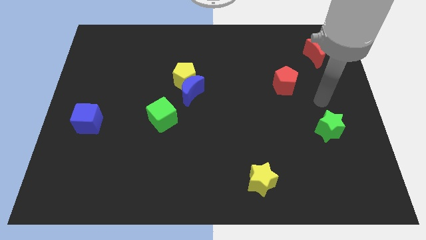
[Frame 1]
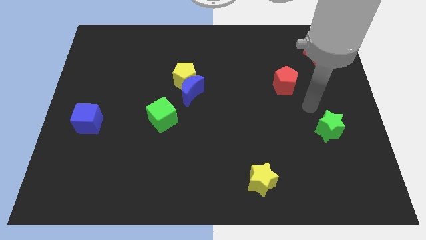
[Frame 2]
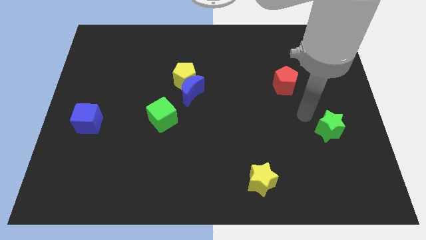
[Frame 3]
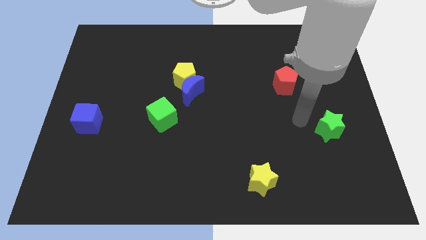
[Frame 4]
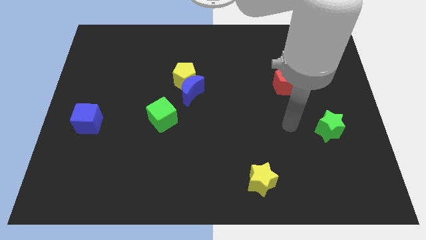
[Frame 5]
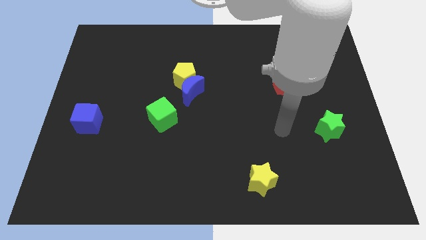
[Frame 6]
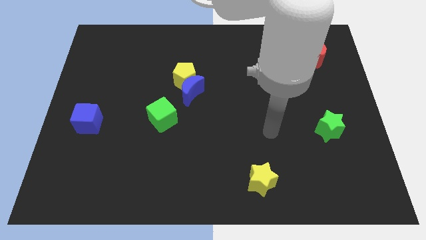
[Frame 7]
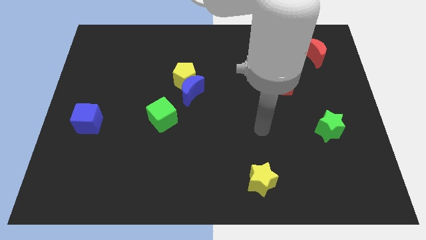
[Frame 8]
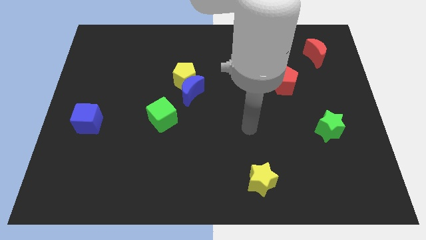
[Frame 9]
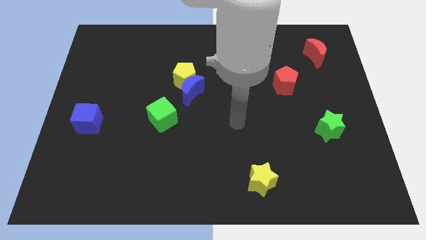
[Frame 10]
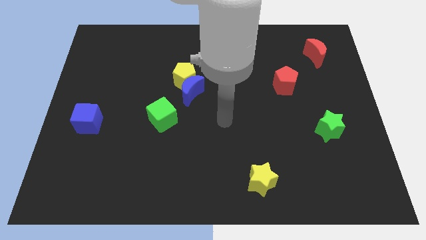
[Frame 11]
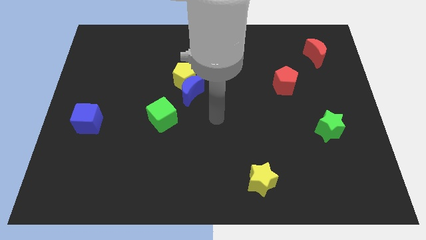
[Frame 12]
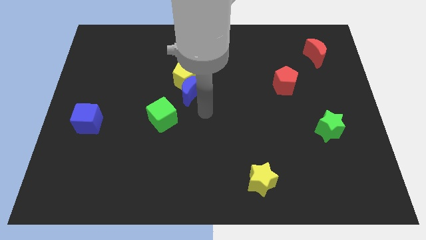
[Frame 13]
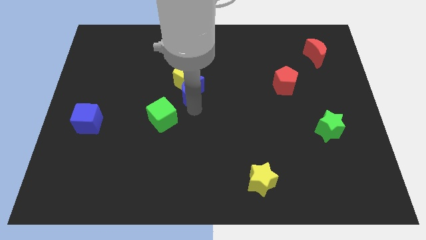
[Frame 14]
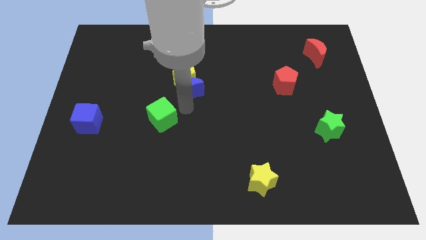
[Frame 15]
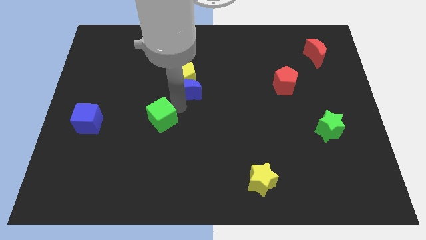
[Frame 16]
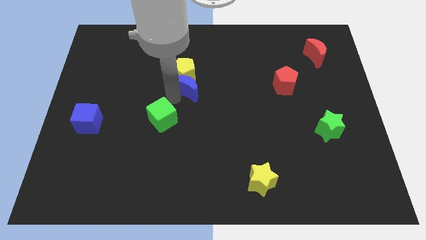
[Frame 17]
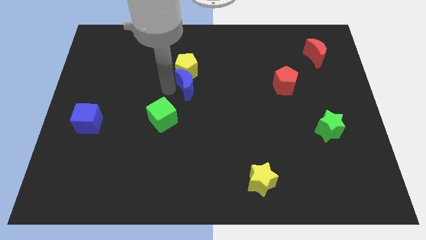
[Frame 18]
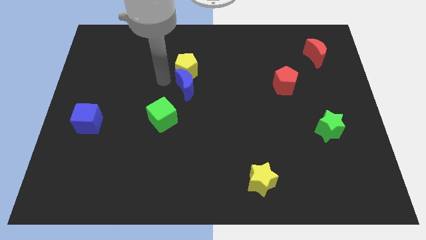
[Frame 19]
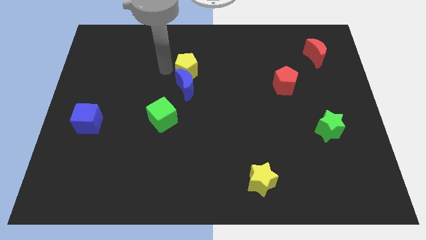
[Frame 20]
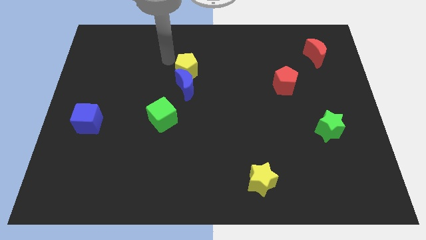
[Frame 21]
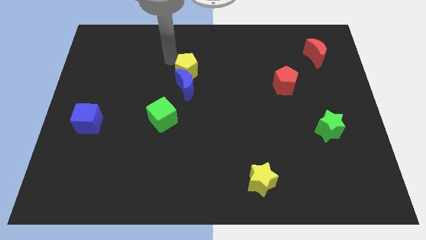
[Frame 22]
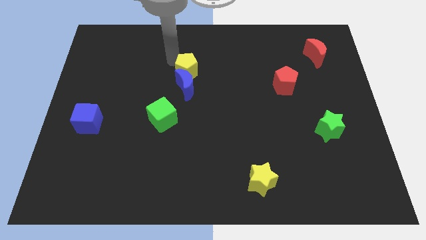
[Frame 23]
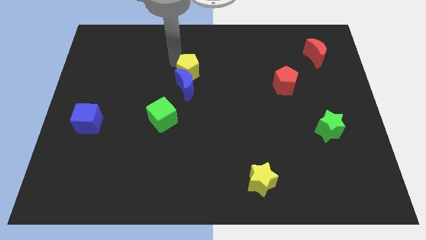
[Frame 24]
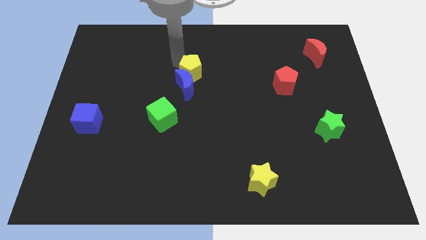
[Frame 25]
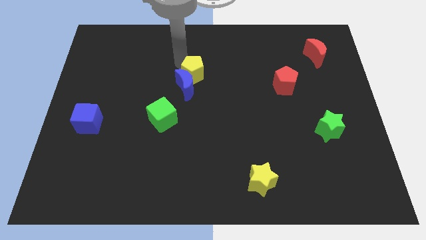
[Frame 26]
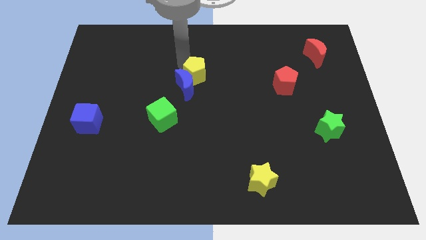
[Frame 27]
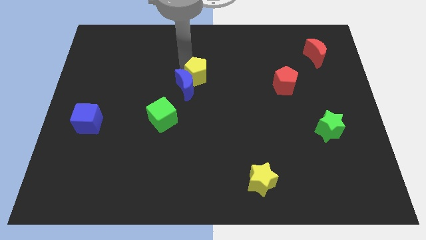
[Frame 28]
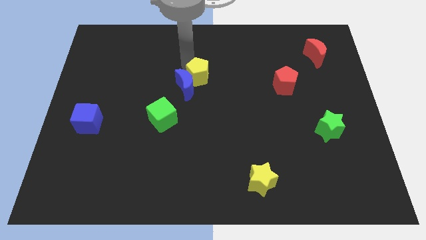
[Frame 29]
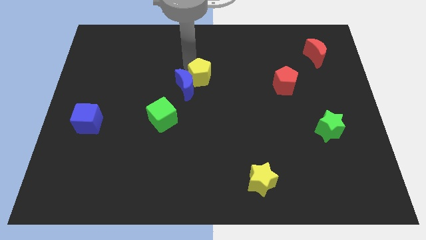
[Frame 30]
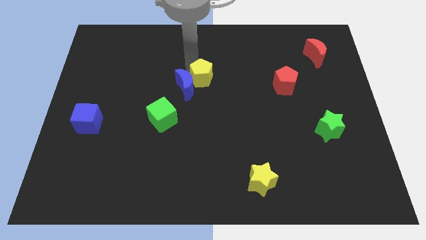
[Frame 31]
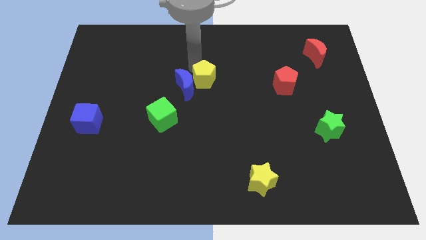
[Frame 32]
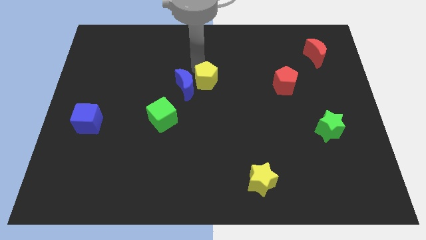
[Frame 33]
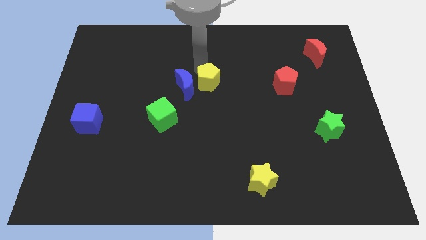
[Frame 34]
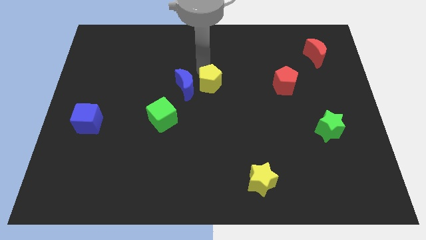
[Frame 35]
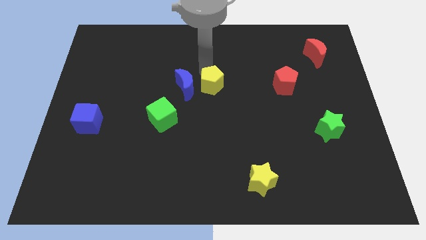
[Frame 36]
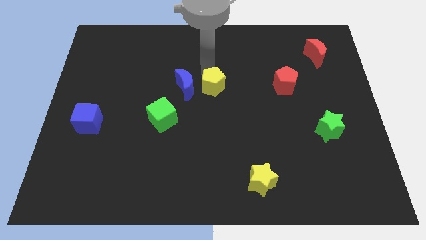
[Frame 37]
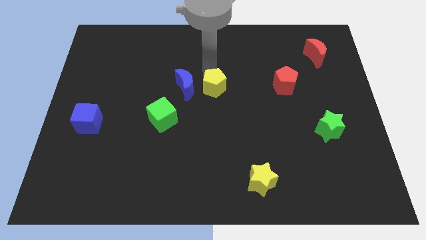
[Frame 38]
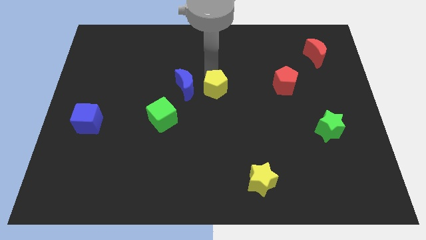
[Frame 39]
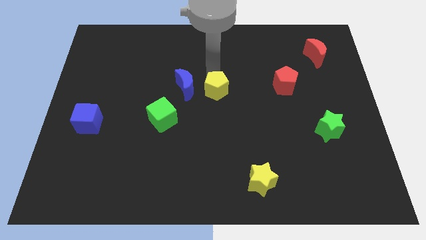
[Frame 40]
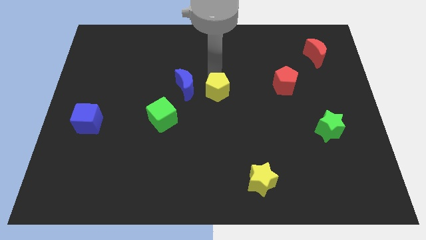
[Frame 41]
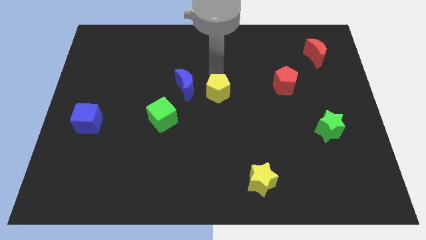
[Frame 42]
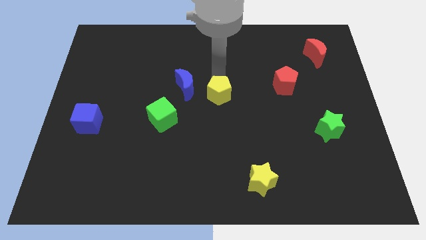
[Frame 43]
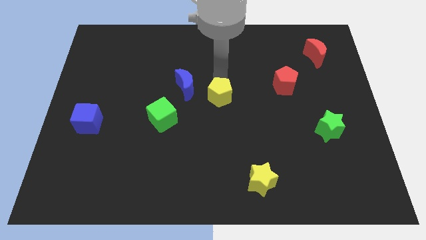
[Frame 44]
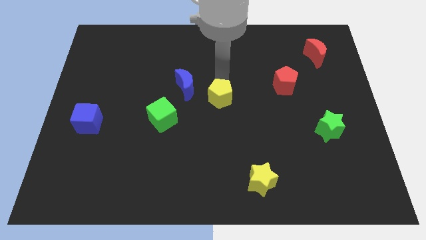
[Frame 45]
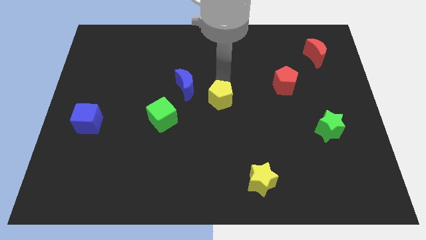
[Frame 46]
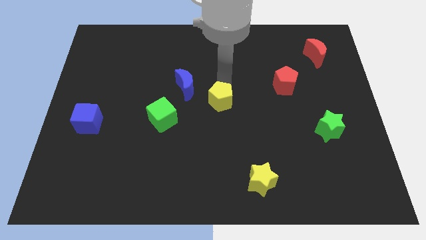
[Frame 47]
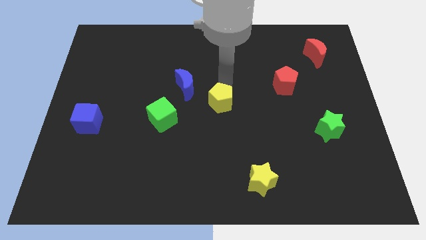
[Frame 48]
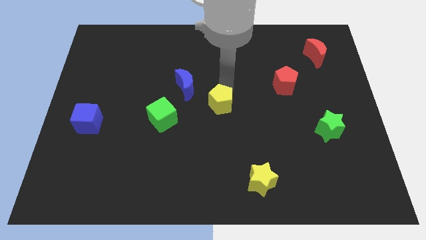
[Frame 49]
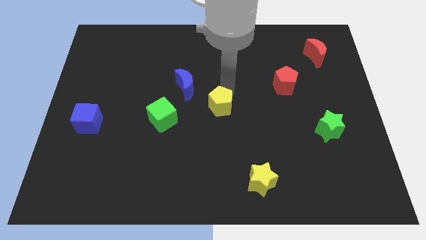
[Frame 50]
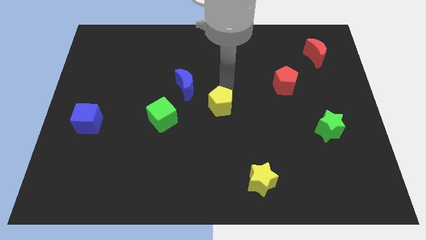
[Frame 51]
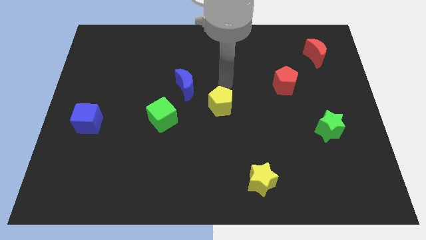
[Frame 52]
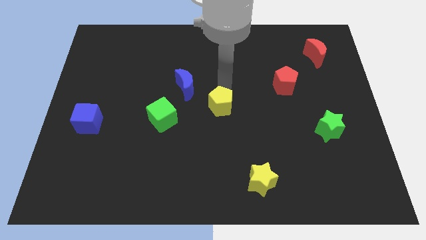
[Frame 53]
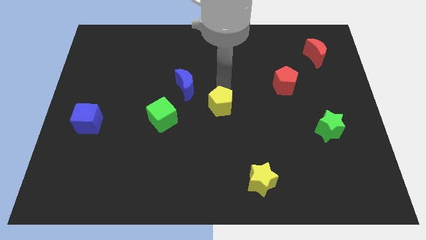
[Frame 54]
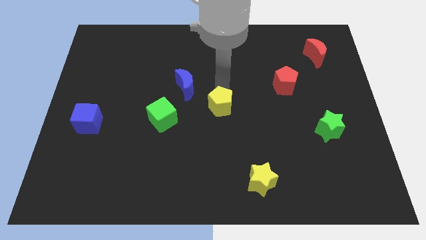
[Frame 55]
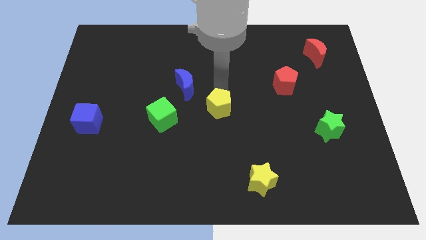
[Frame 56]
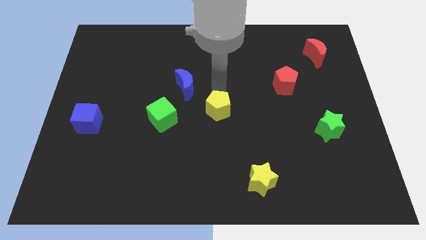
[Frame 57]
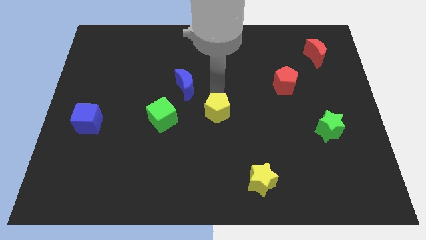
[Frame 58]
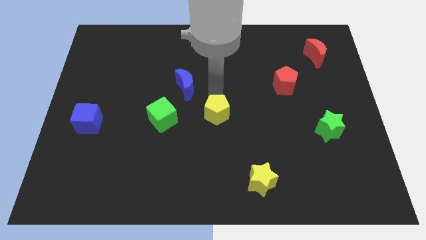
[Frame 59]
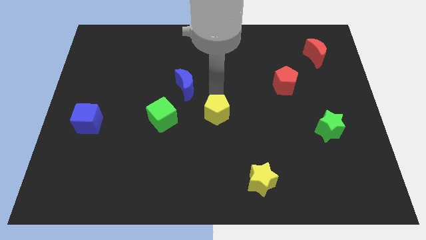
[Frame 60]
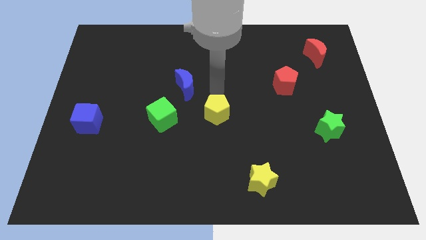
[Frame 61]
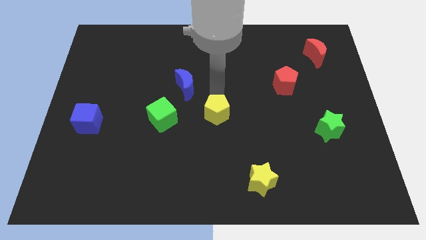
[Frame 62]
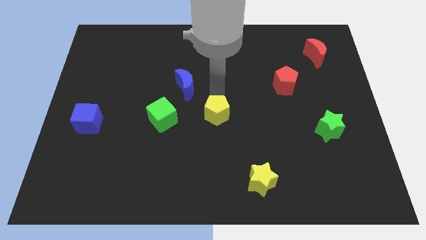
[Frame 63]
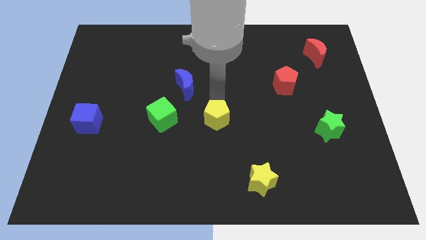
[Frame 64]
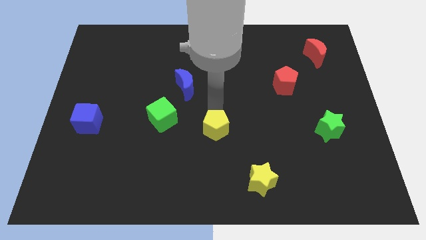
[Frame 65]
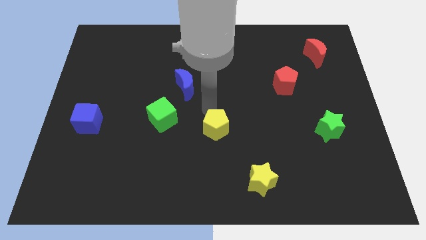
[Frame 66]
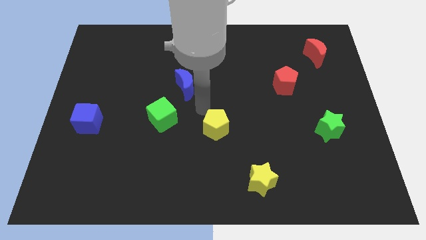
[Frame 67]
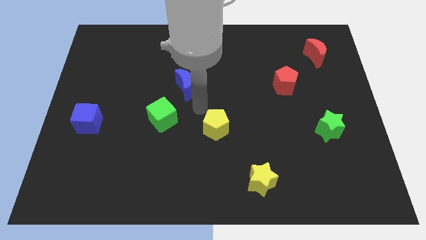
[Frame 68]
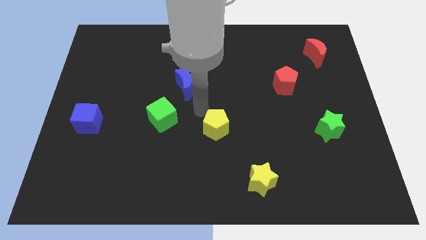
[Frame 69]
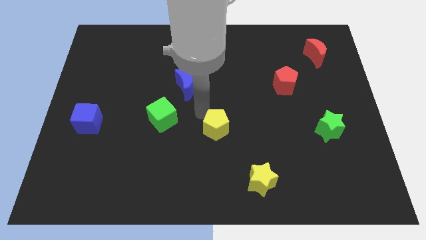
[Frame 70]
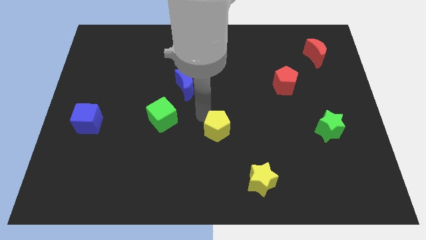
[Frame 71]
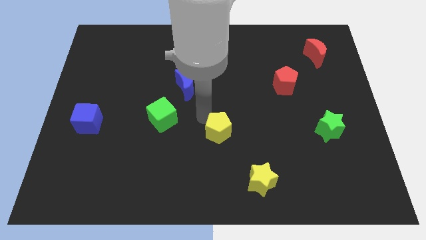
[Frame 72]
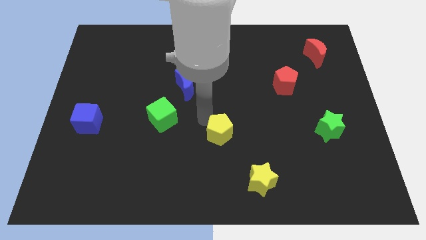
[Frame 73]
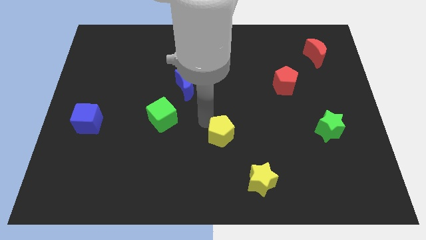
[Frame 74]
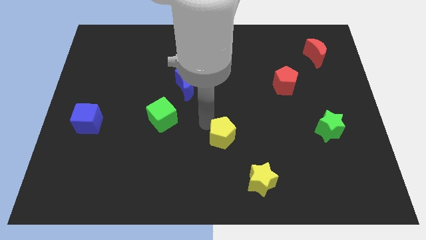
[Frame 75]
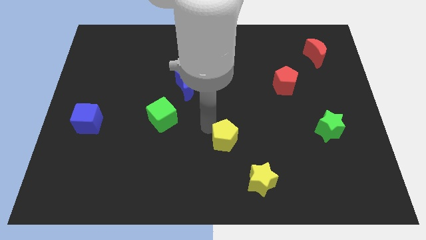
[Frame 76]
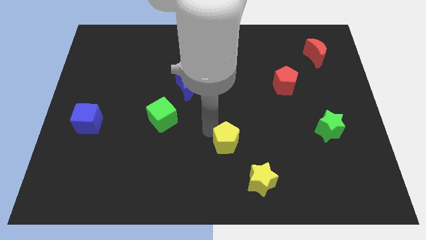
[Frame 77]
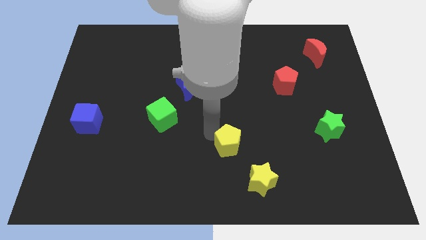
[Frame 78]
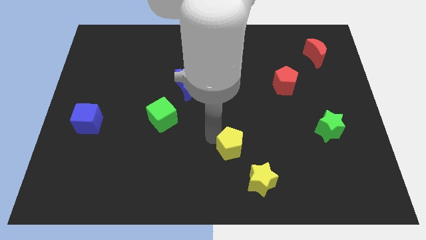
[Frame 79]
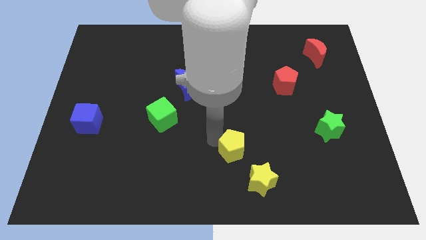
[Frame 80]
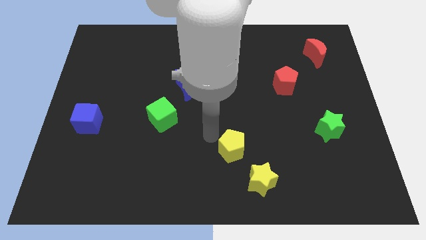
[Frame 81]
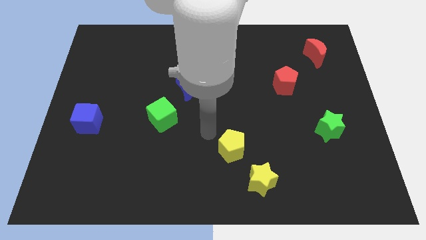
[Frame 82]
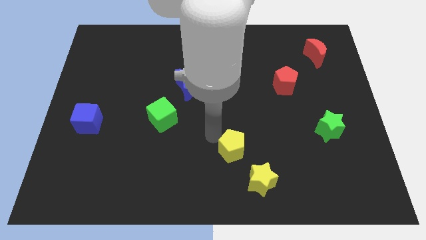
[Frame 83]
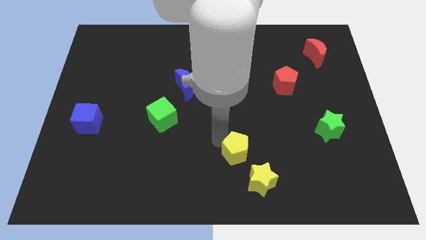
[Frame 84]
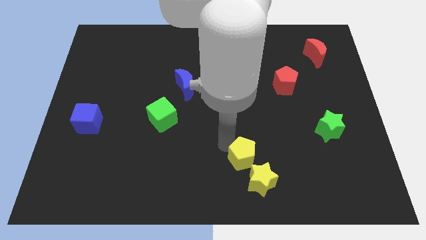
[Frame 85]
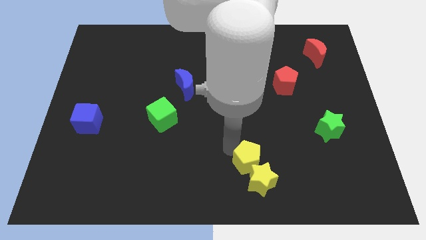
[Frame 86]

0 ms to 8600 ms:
push the yellow pentagon next to the yellow star
